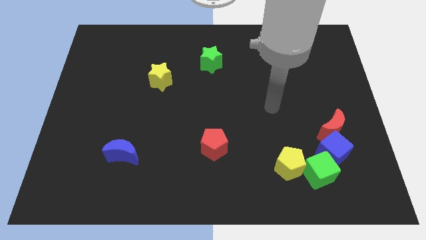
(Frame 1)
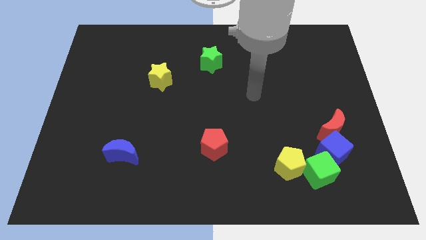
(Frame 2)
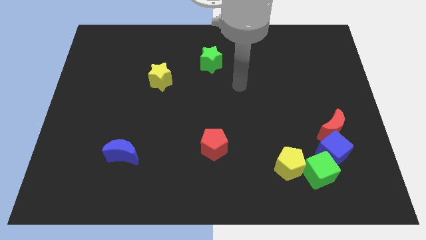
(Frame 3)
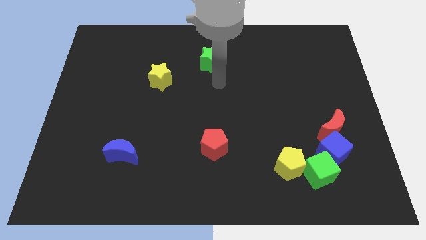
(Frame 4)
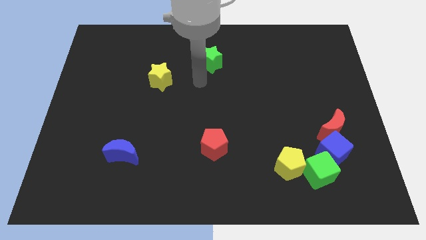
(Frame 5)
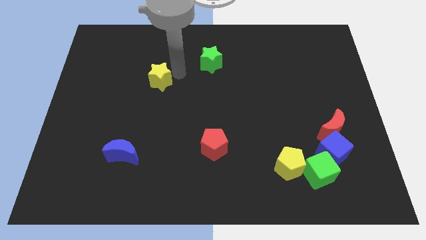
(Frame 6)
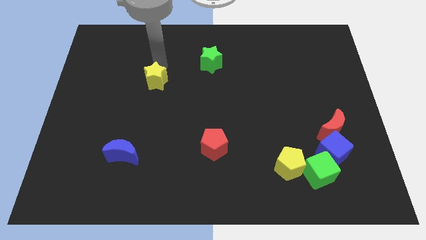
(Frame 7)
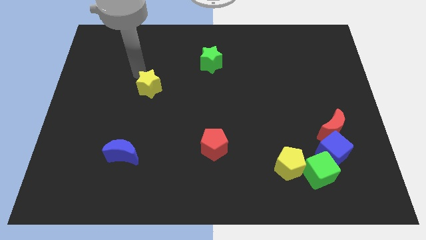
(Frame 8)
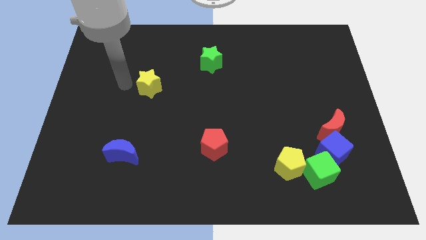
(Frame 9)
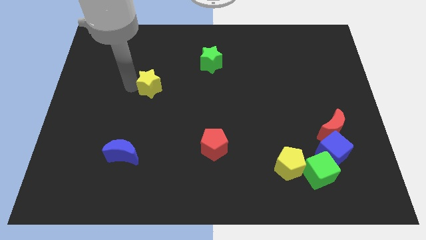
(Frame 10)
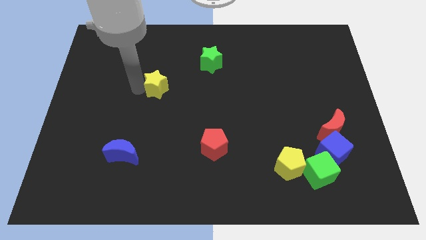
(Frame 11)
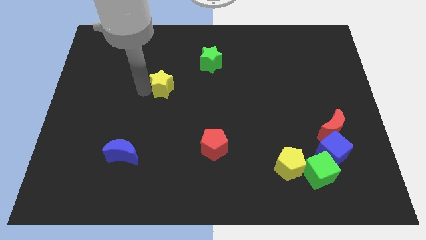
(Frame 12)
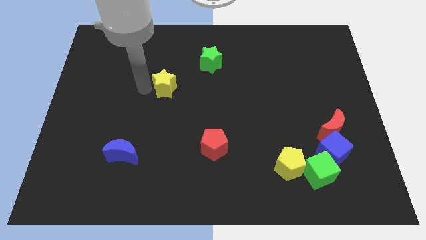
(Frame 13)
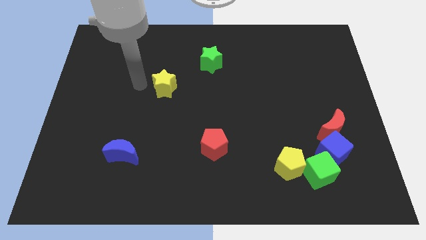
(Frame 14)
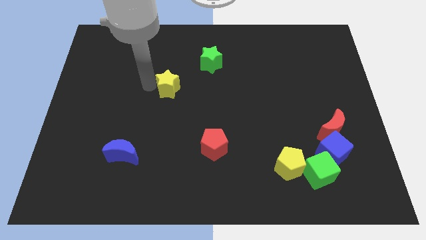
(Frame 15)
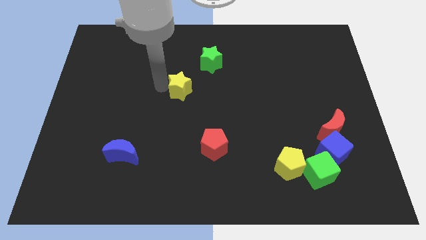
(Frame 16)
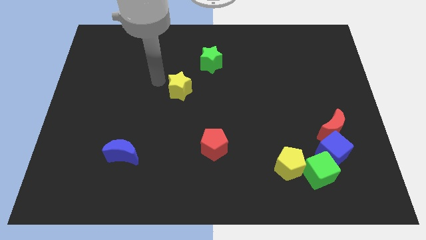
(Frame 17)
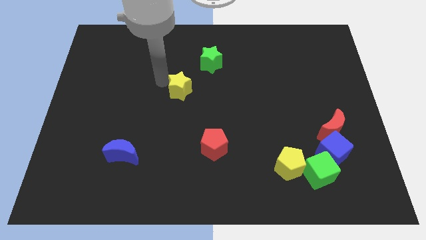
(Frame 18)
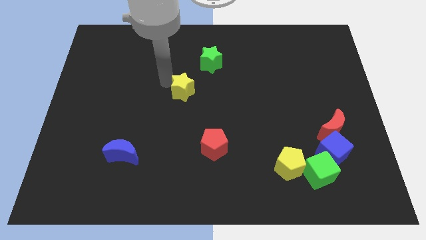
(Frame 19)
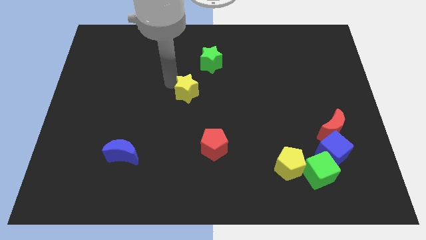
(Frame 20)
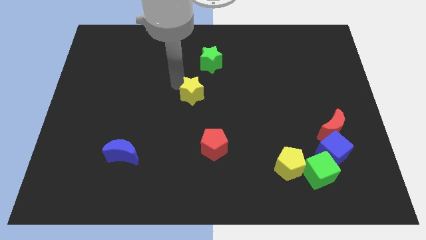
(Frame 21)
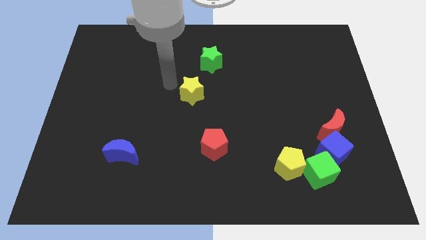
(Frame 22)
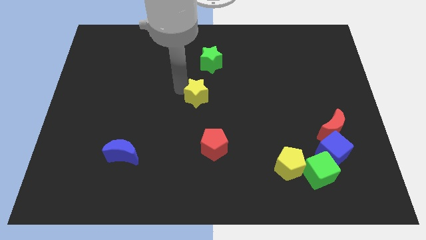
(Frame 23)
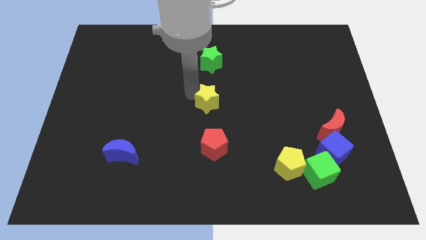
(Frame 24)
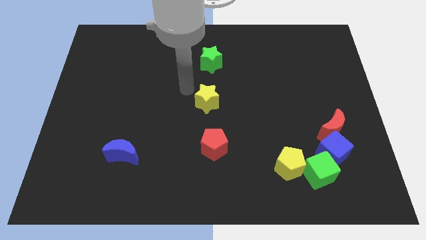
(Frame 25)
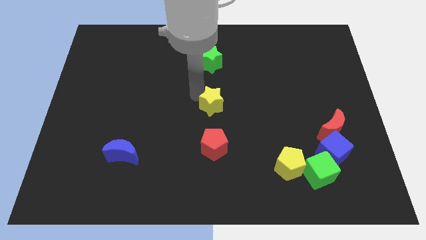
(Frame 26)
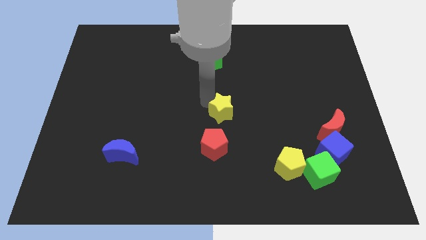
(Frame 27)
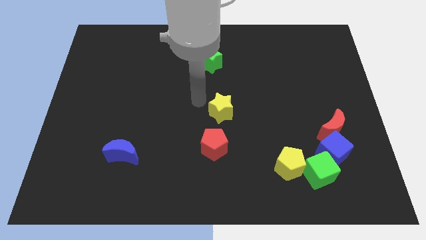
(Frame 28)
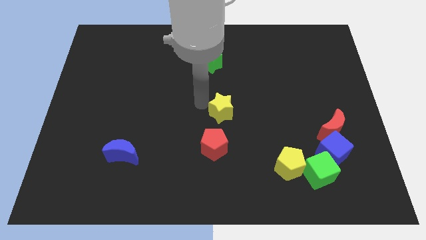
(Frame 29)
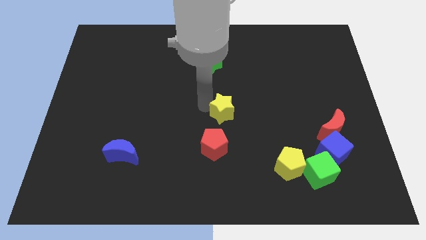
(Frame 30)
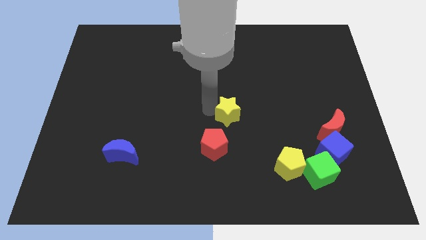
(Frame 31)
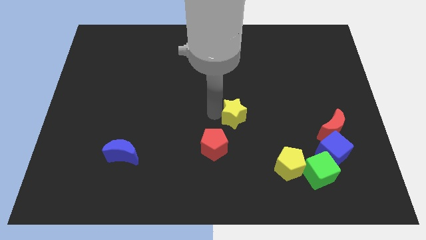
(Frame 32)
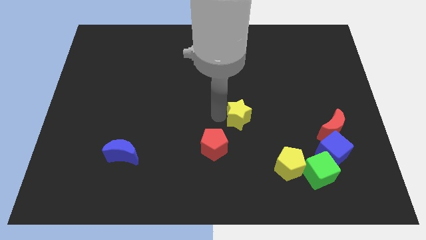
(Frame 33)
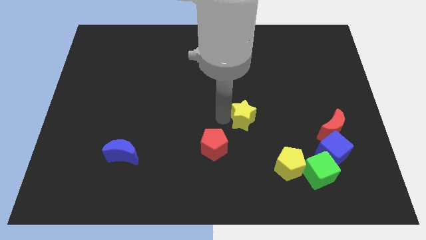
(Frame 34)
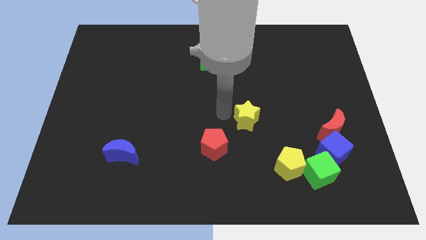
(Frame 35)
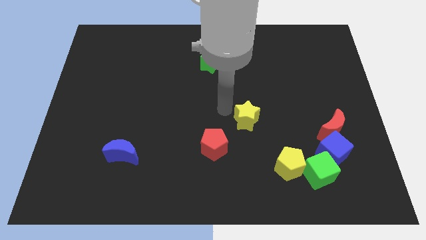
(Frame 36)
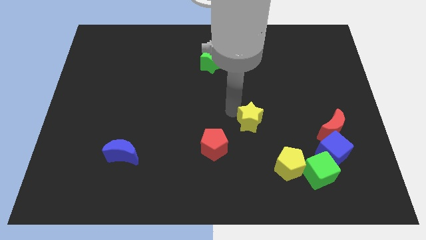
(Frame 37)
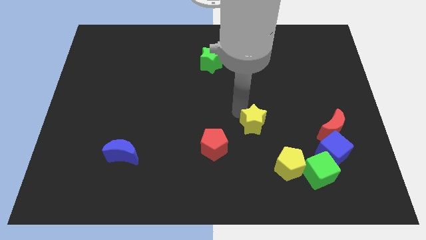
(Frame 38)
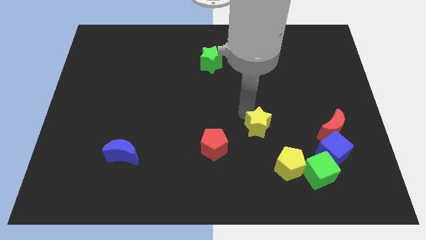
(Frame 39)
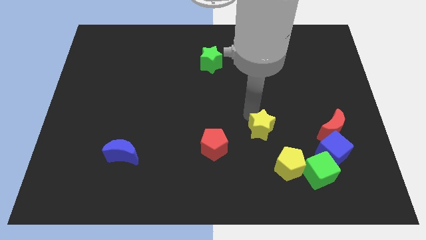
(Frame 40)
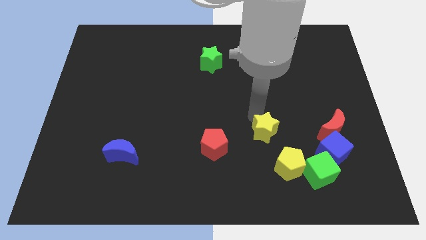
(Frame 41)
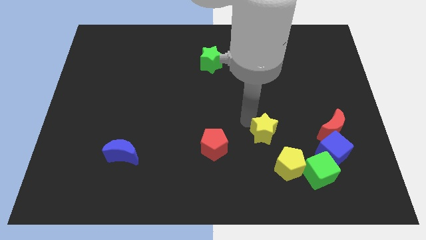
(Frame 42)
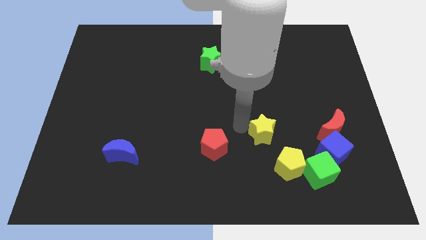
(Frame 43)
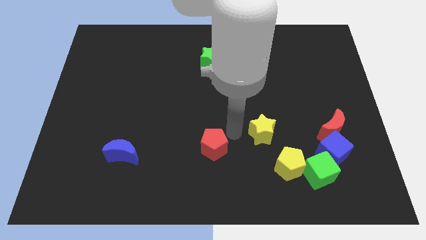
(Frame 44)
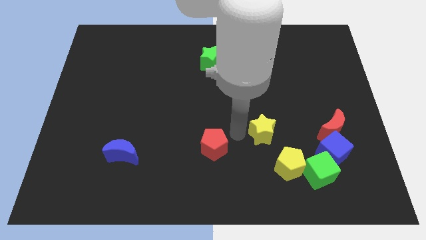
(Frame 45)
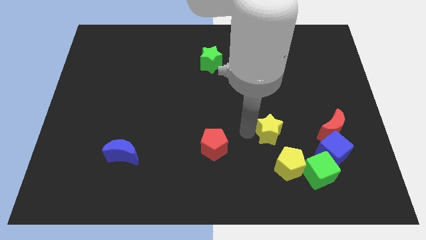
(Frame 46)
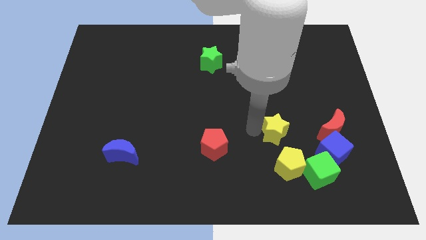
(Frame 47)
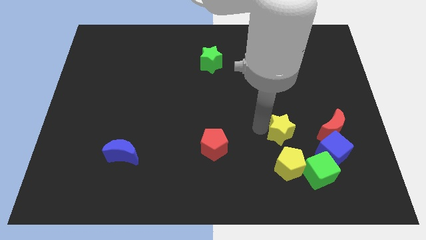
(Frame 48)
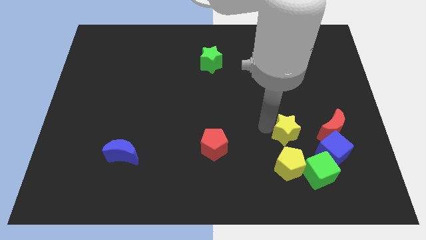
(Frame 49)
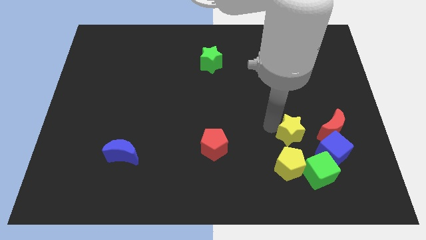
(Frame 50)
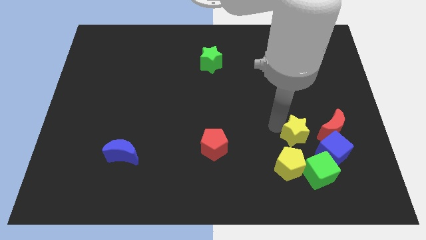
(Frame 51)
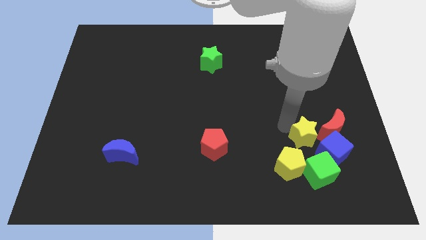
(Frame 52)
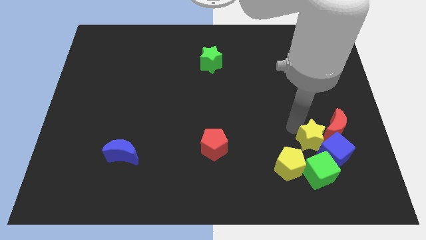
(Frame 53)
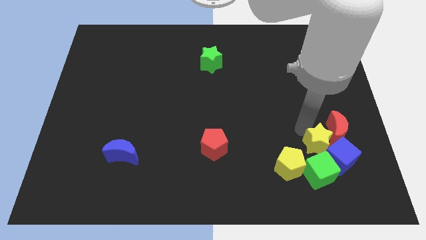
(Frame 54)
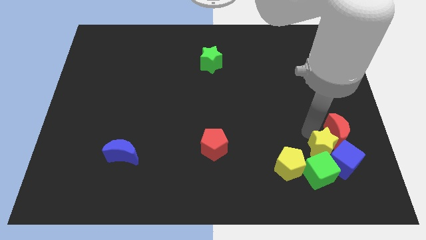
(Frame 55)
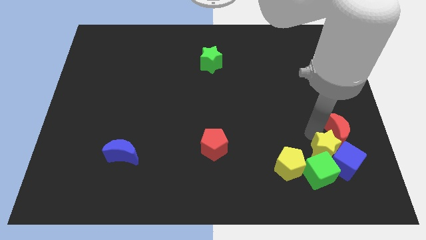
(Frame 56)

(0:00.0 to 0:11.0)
put the yellow star next to the green cube

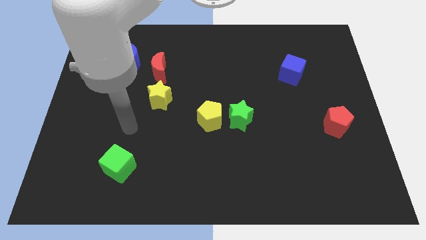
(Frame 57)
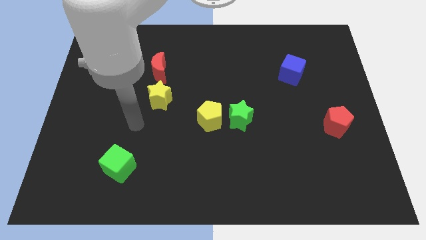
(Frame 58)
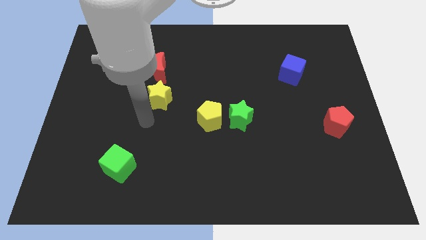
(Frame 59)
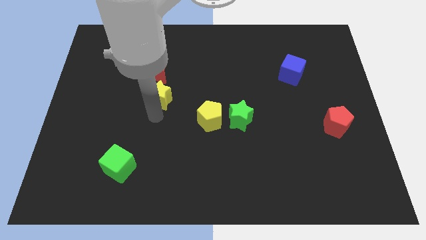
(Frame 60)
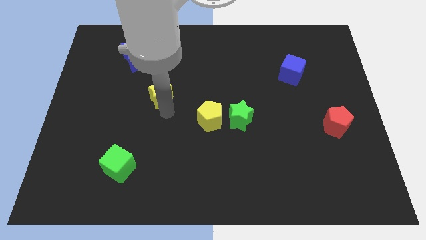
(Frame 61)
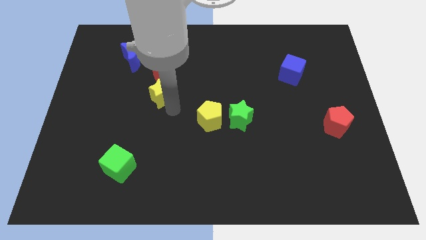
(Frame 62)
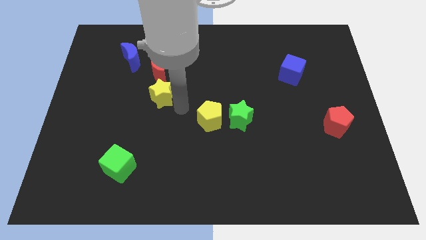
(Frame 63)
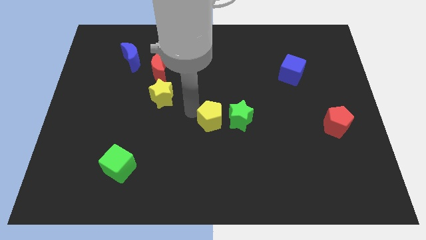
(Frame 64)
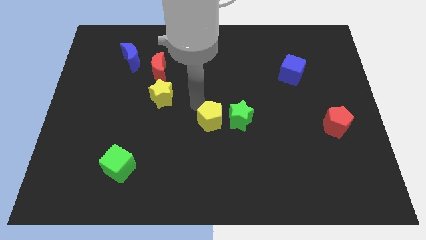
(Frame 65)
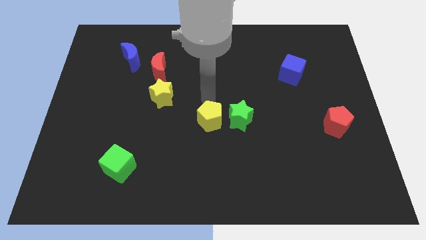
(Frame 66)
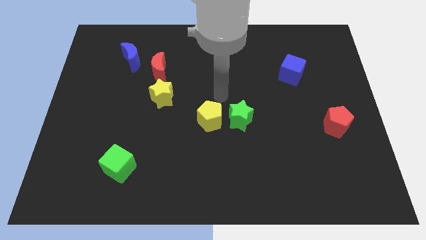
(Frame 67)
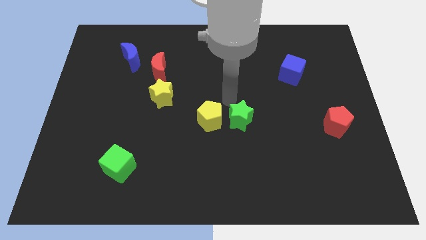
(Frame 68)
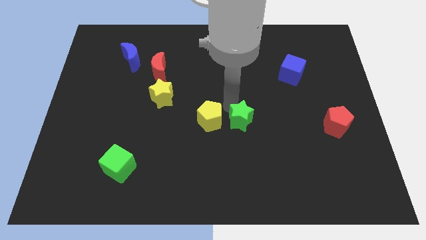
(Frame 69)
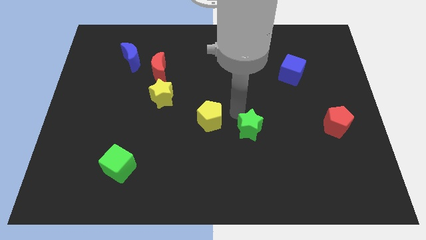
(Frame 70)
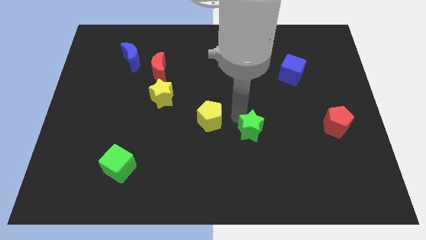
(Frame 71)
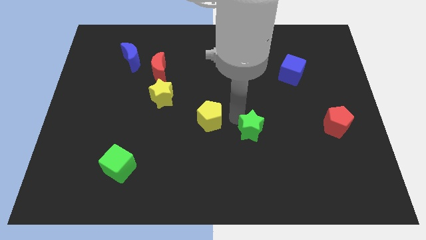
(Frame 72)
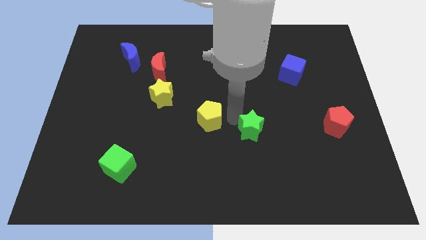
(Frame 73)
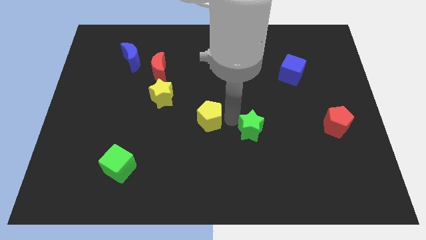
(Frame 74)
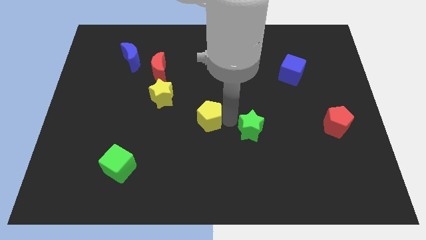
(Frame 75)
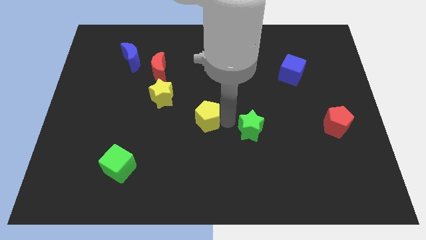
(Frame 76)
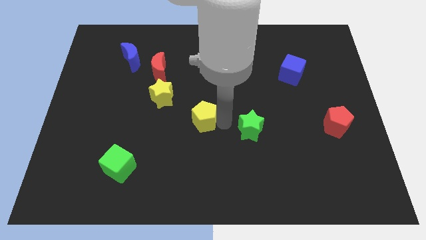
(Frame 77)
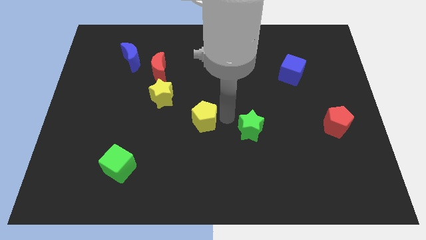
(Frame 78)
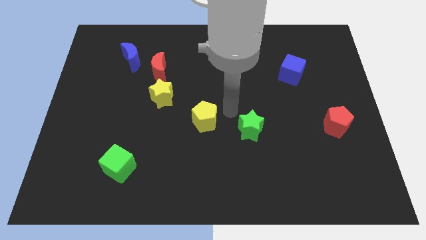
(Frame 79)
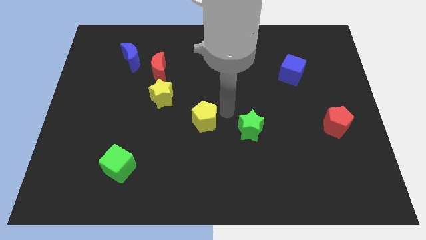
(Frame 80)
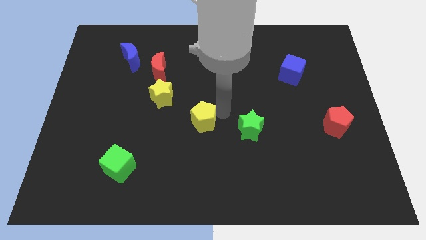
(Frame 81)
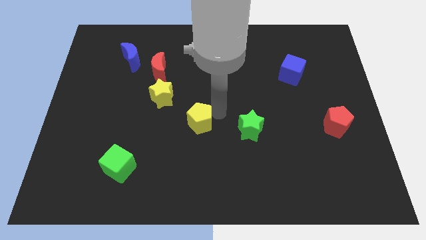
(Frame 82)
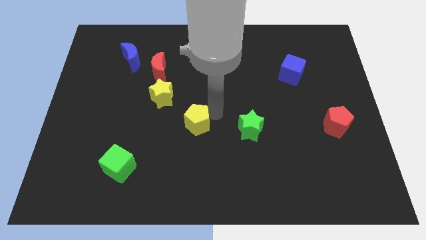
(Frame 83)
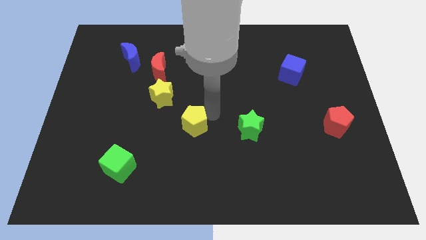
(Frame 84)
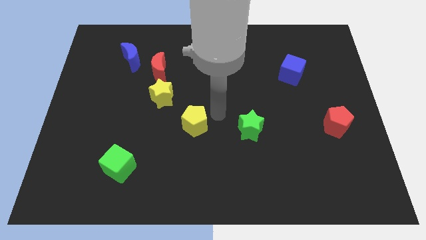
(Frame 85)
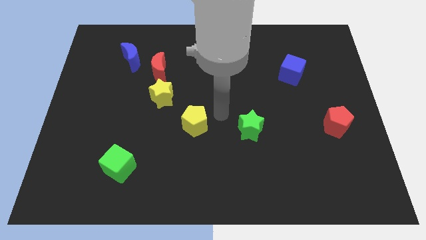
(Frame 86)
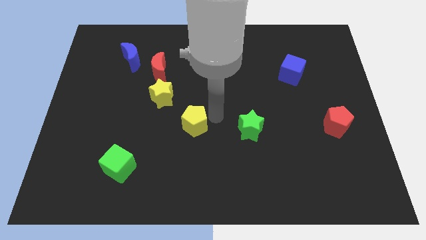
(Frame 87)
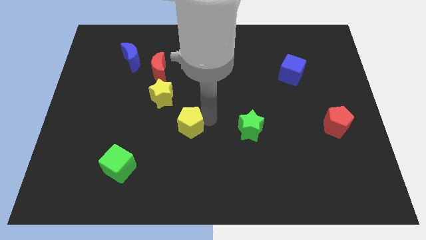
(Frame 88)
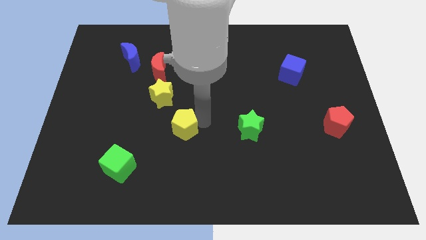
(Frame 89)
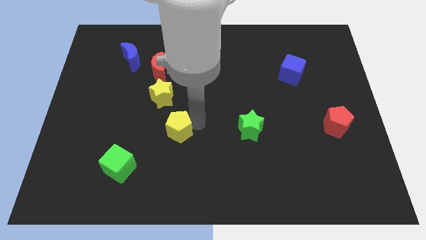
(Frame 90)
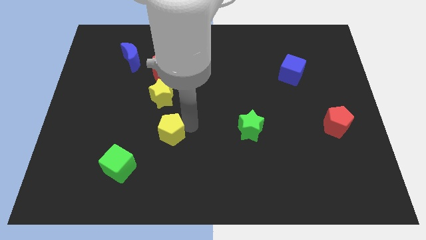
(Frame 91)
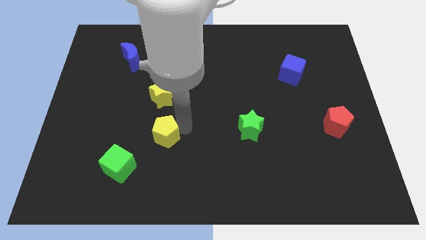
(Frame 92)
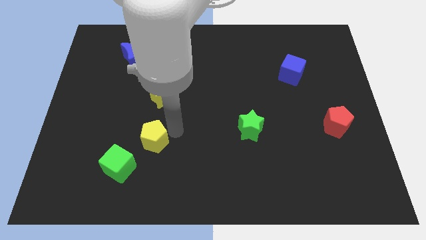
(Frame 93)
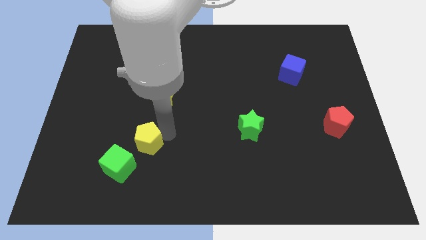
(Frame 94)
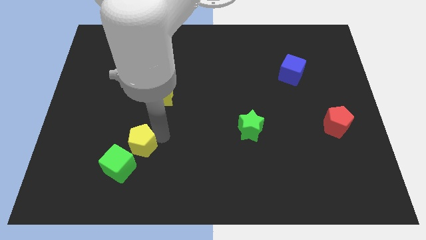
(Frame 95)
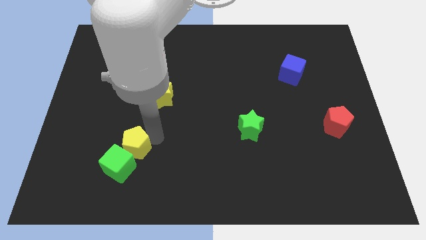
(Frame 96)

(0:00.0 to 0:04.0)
push the yellow pentagon close to the green cube
